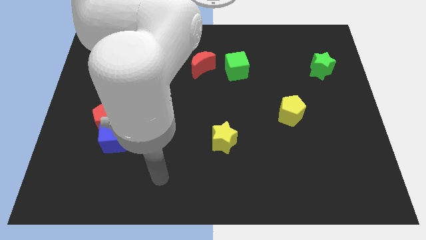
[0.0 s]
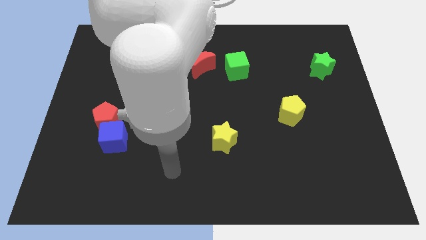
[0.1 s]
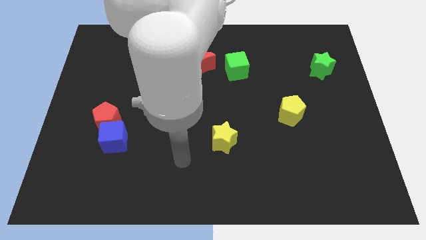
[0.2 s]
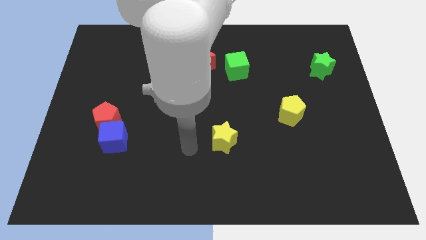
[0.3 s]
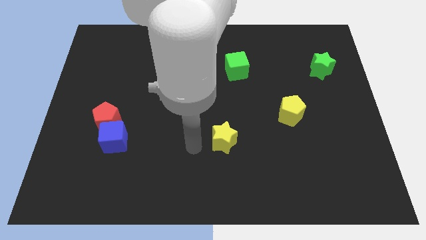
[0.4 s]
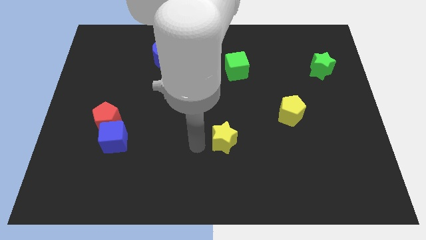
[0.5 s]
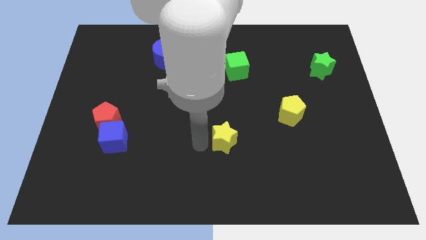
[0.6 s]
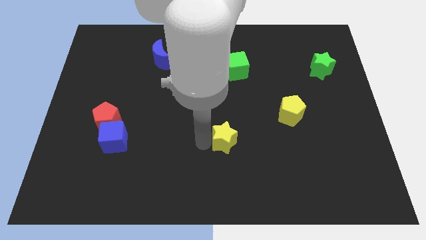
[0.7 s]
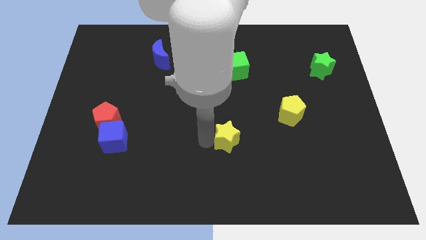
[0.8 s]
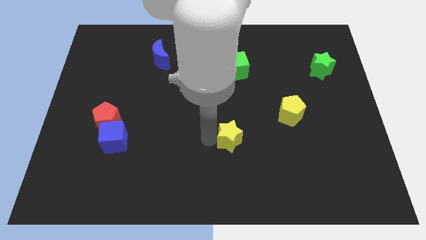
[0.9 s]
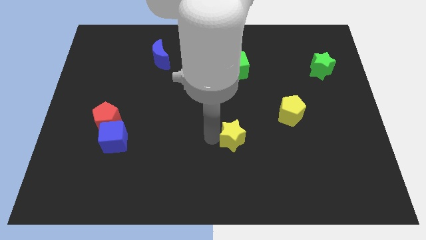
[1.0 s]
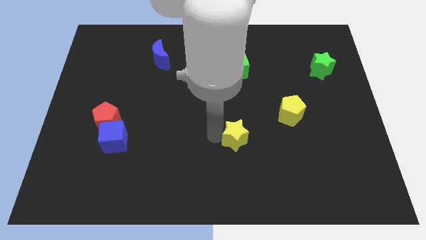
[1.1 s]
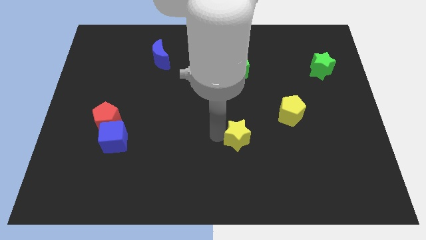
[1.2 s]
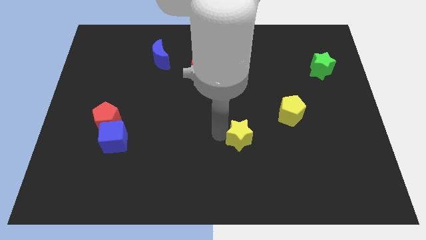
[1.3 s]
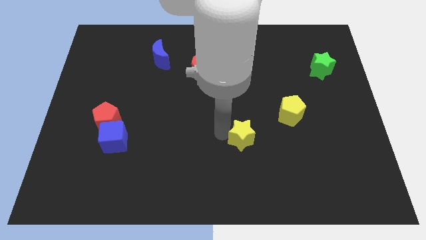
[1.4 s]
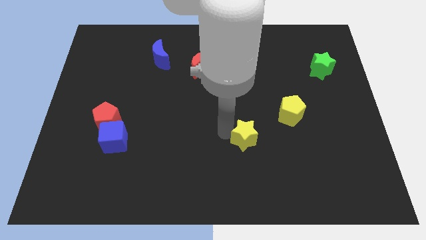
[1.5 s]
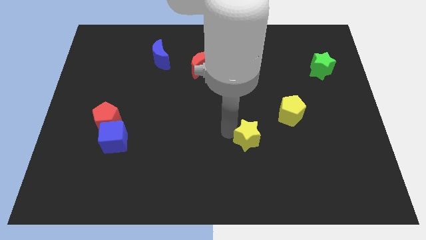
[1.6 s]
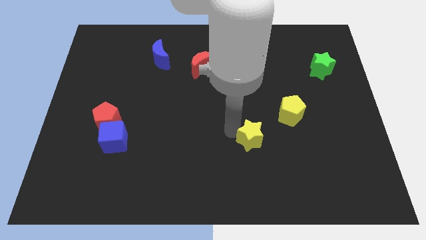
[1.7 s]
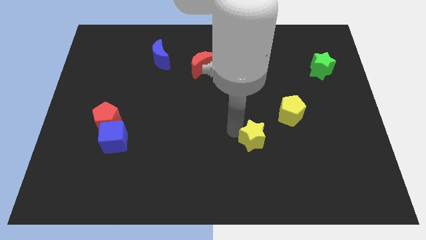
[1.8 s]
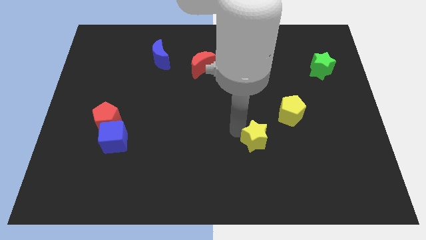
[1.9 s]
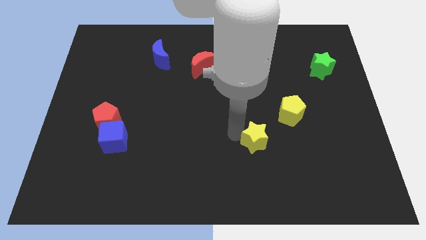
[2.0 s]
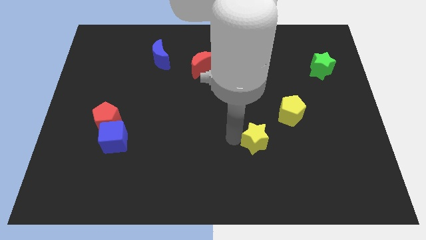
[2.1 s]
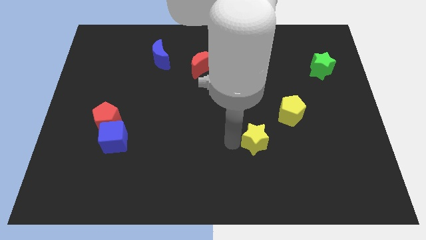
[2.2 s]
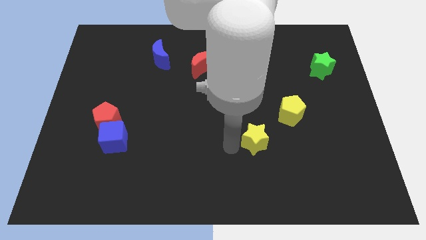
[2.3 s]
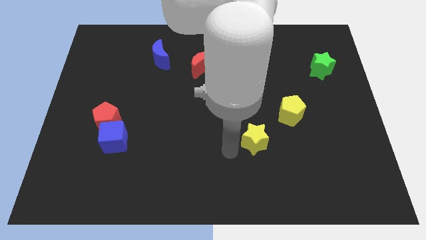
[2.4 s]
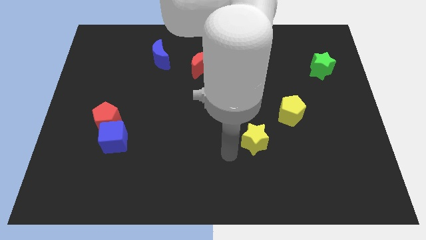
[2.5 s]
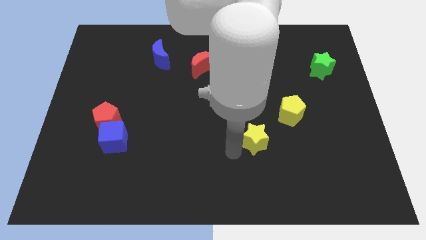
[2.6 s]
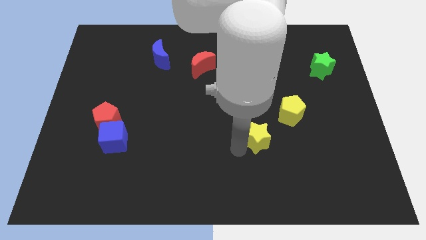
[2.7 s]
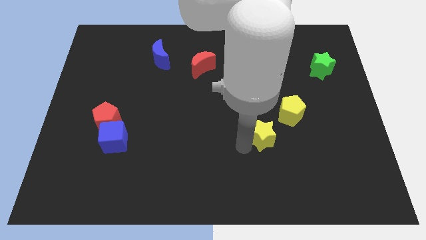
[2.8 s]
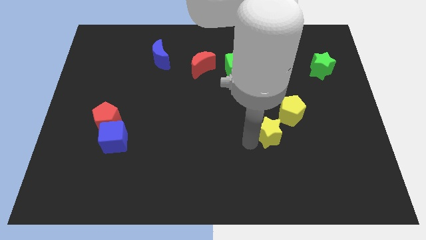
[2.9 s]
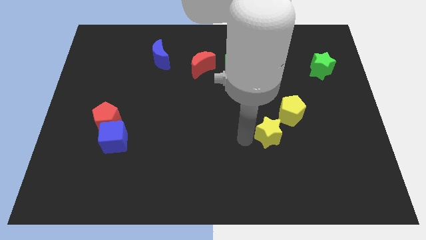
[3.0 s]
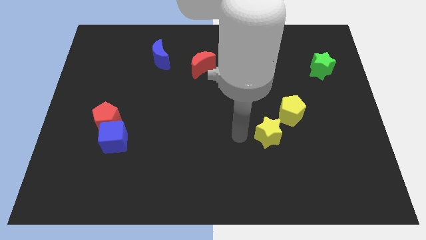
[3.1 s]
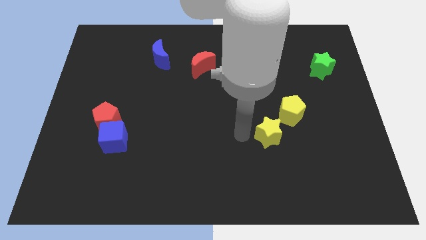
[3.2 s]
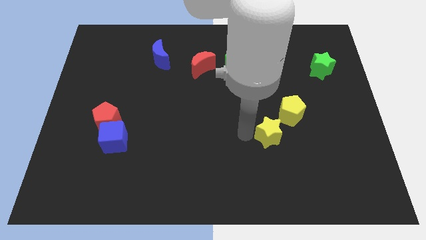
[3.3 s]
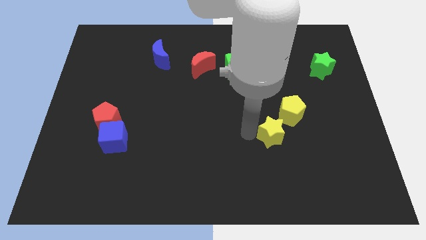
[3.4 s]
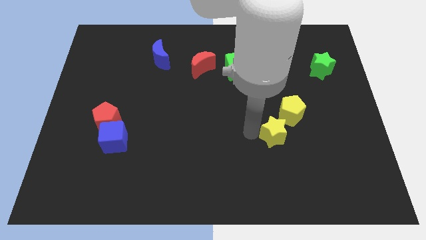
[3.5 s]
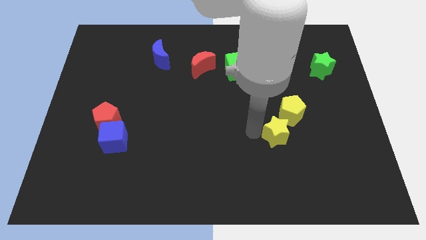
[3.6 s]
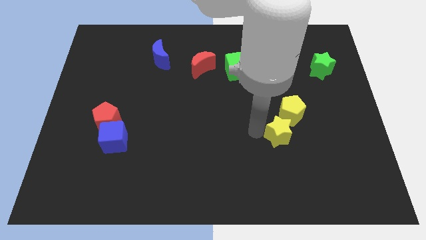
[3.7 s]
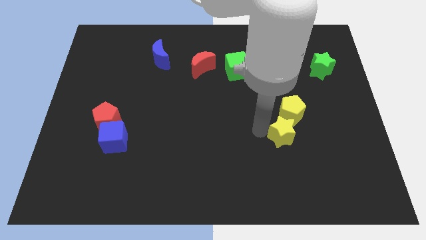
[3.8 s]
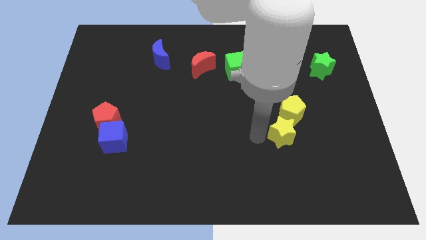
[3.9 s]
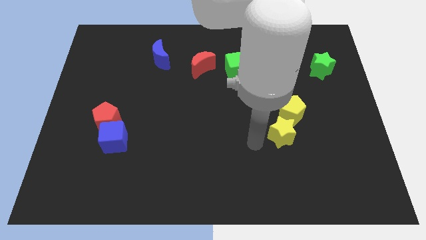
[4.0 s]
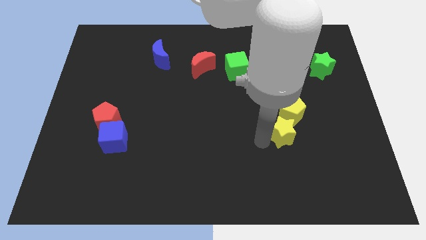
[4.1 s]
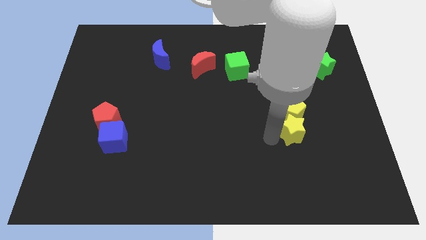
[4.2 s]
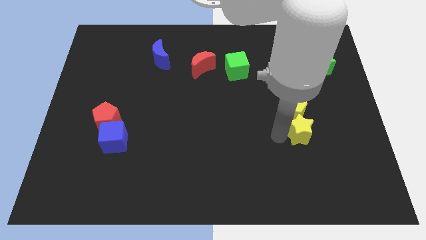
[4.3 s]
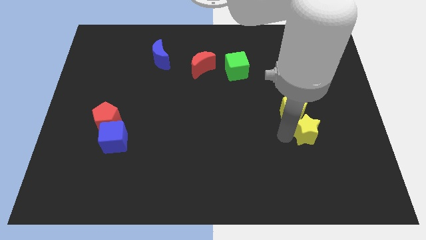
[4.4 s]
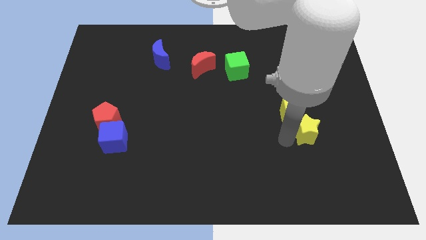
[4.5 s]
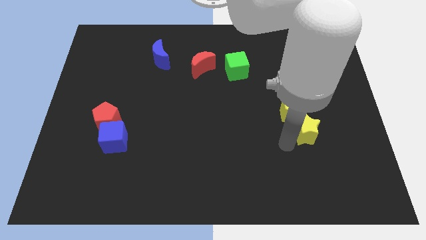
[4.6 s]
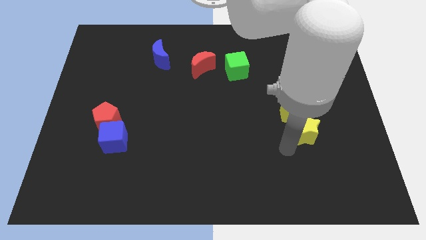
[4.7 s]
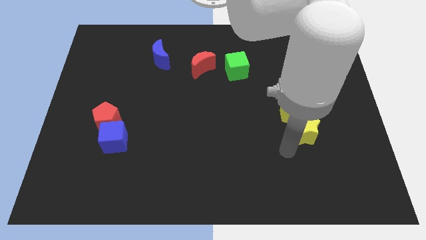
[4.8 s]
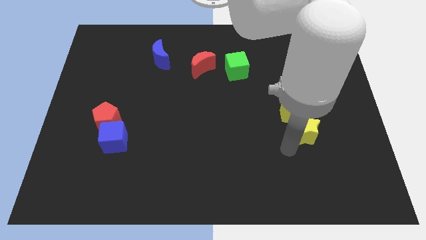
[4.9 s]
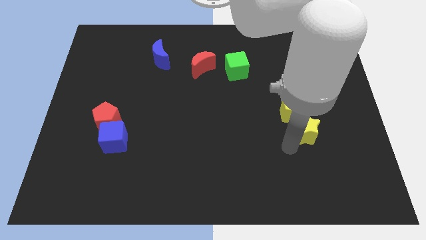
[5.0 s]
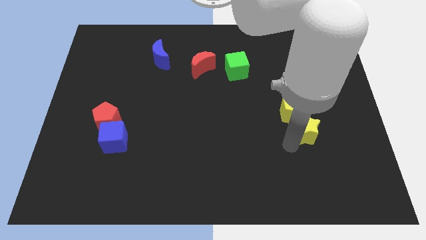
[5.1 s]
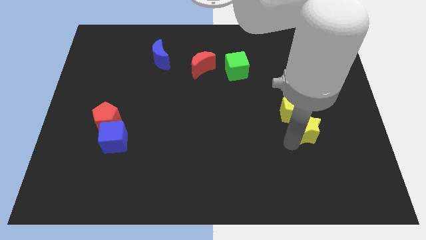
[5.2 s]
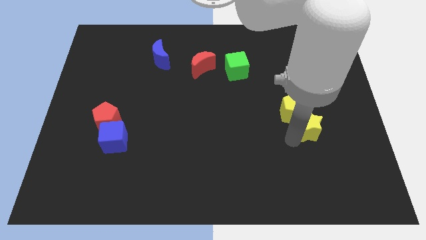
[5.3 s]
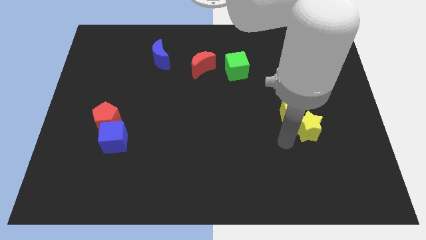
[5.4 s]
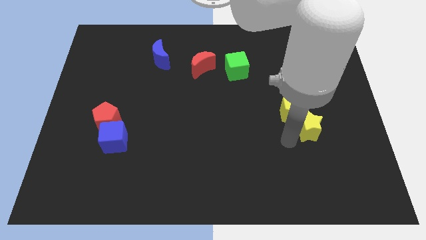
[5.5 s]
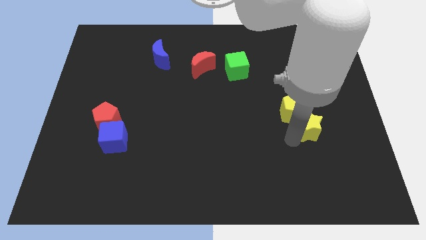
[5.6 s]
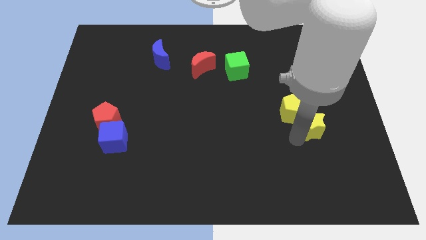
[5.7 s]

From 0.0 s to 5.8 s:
move the yellow star to the right of the yellow pentagon

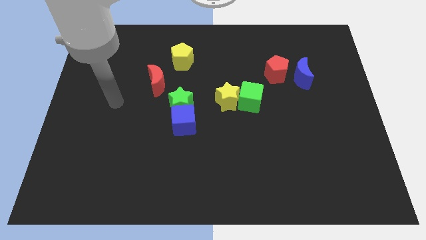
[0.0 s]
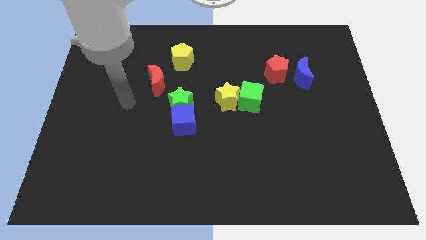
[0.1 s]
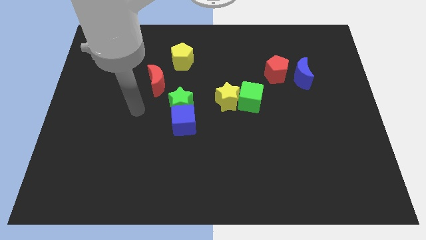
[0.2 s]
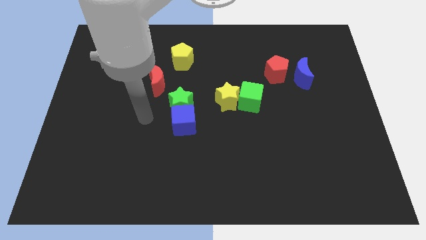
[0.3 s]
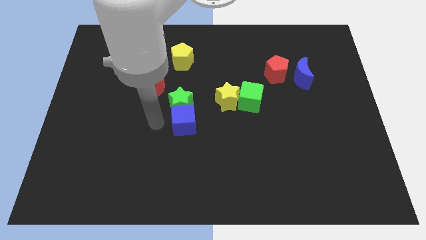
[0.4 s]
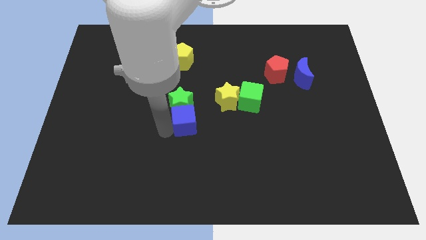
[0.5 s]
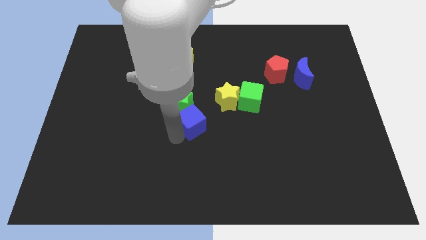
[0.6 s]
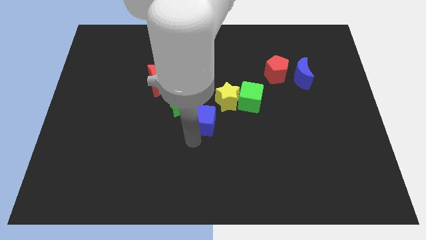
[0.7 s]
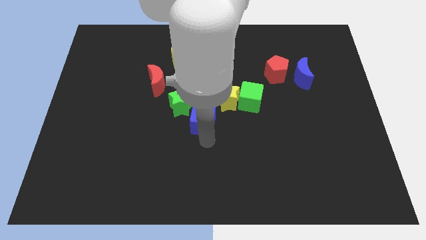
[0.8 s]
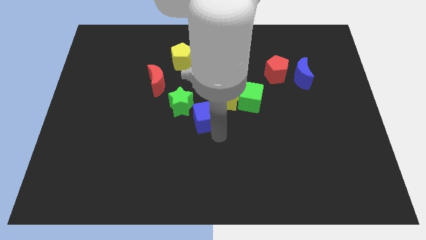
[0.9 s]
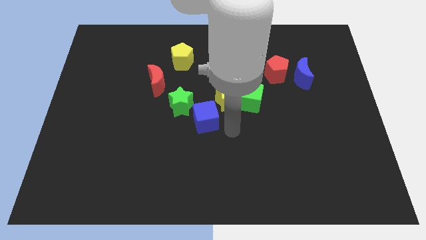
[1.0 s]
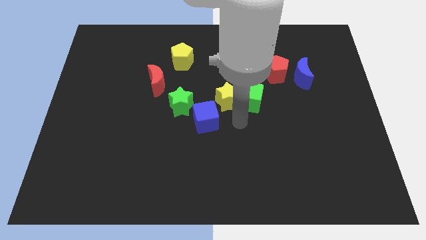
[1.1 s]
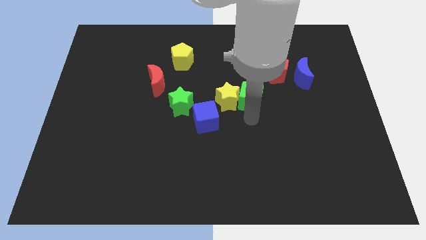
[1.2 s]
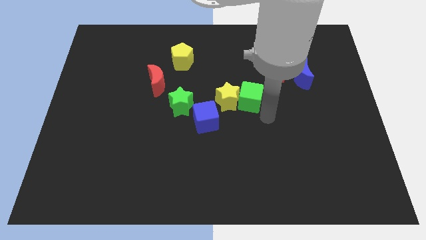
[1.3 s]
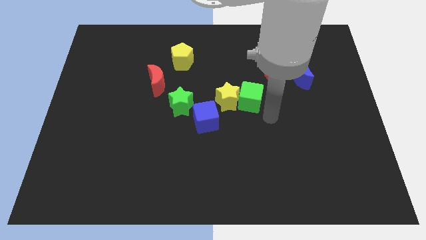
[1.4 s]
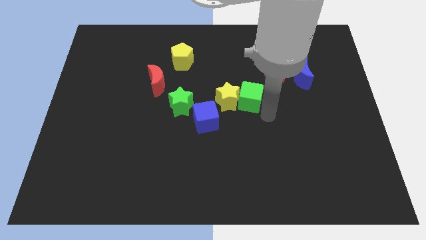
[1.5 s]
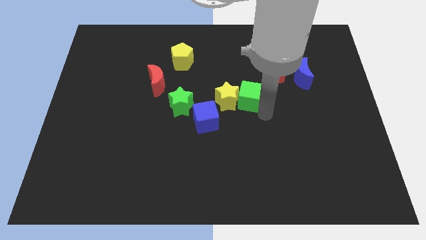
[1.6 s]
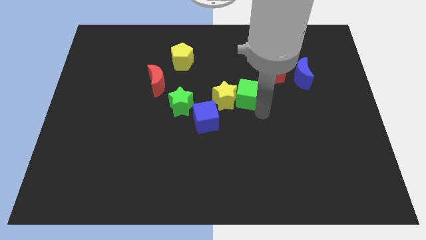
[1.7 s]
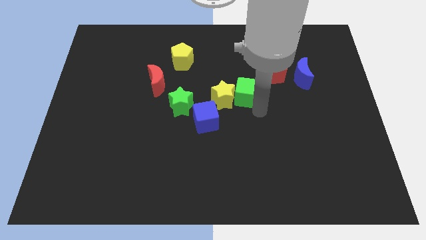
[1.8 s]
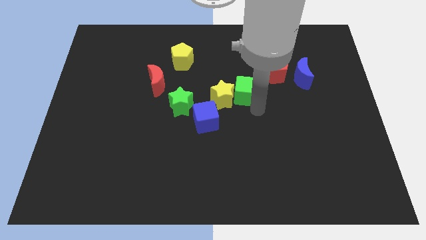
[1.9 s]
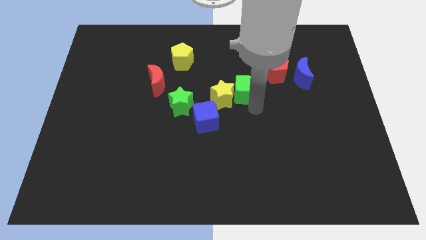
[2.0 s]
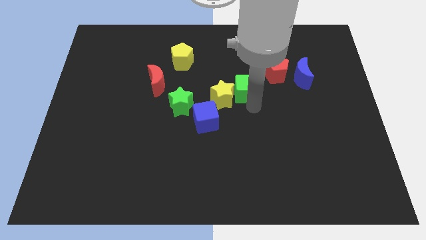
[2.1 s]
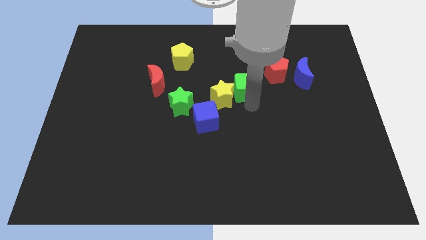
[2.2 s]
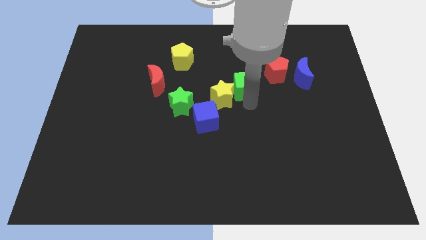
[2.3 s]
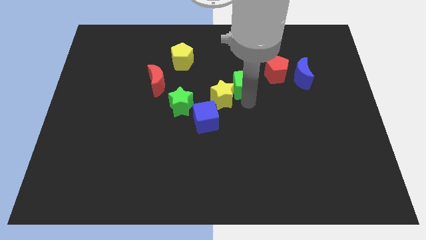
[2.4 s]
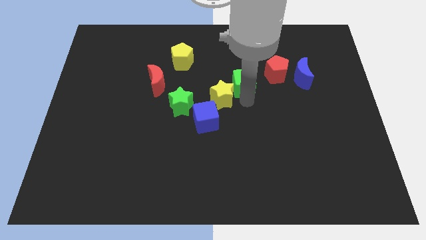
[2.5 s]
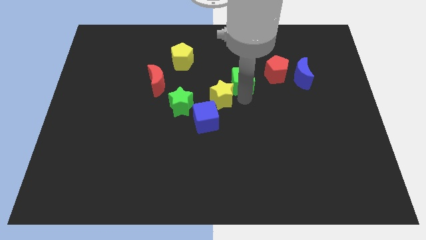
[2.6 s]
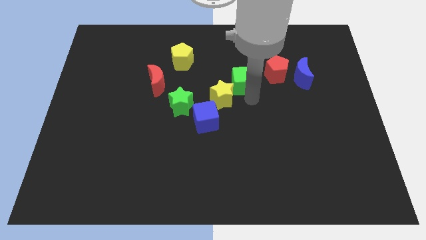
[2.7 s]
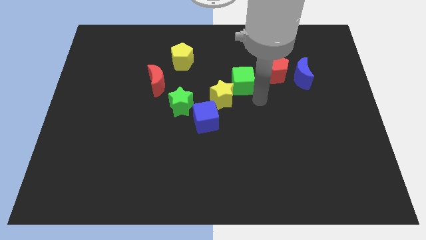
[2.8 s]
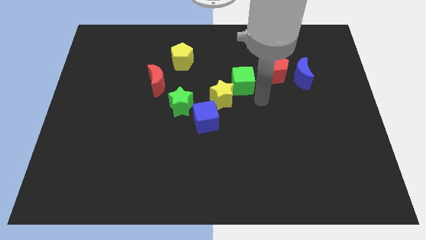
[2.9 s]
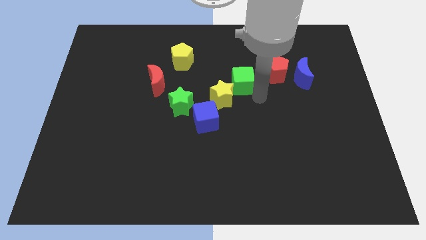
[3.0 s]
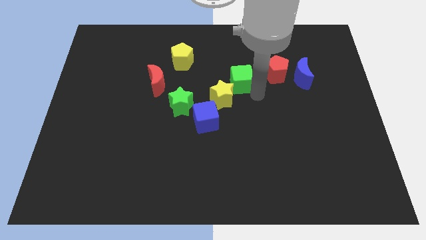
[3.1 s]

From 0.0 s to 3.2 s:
move the green cube to the top side of the yellow star
